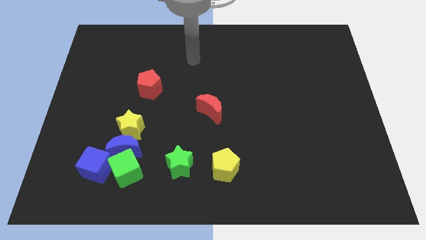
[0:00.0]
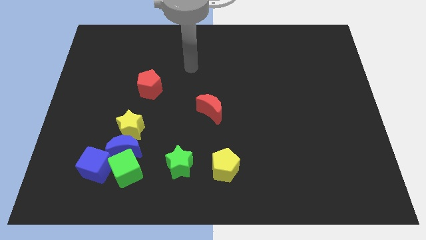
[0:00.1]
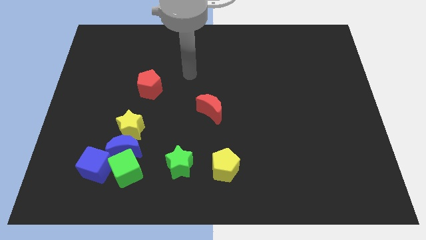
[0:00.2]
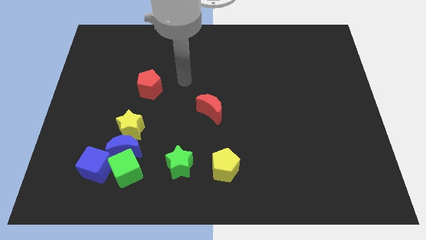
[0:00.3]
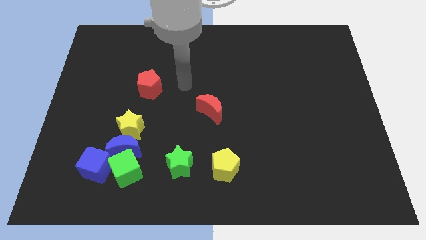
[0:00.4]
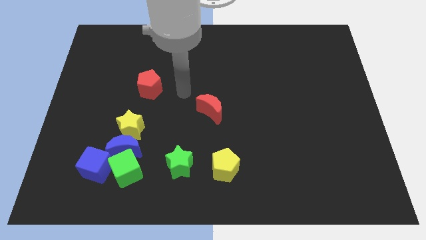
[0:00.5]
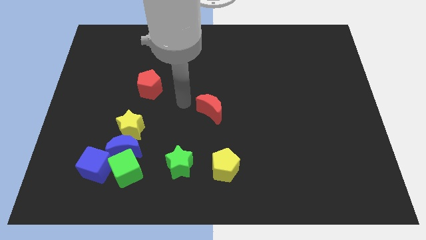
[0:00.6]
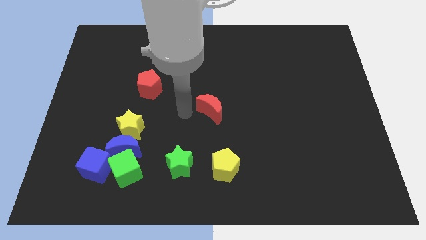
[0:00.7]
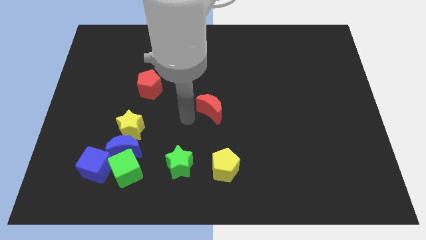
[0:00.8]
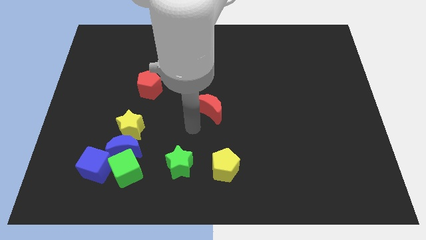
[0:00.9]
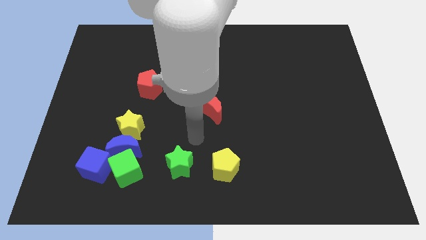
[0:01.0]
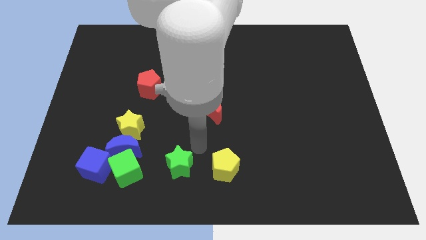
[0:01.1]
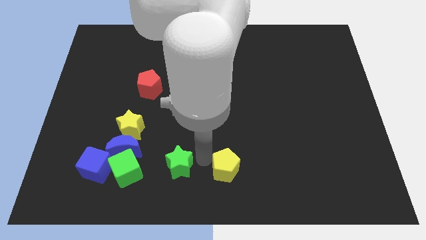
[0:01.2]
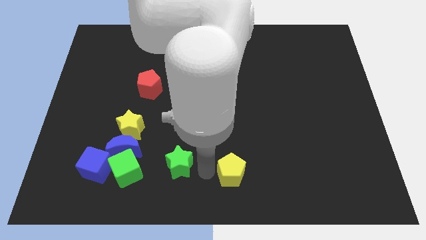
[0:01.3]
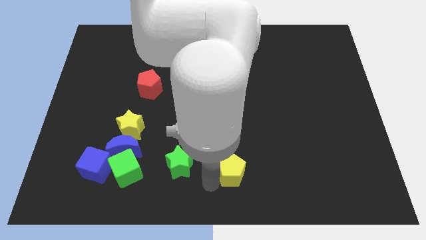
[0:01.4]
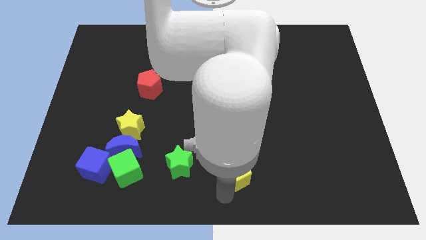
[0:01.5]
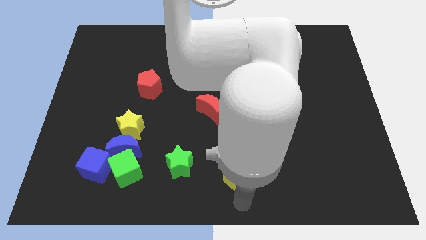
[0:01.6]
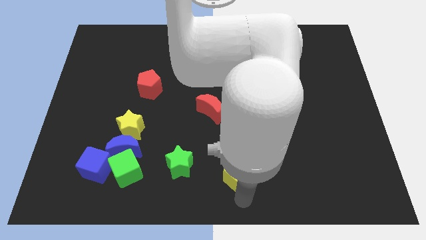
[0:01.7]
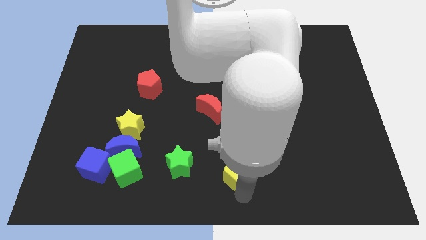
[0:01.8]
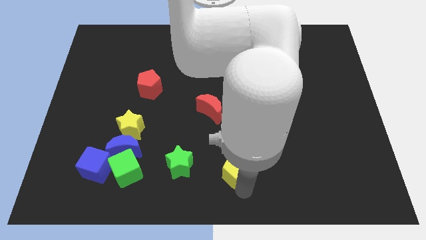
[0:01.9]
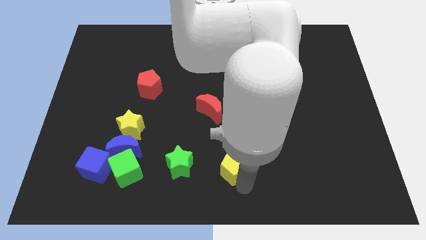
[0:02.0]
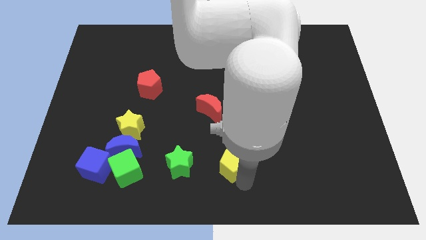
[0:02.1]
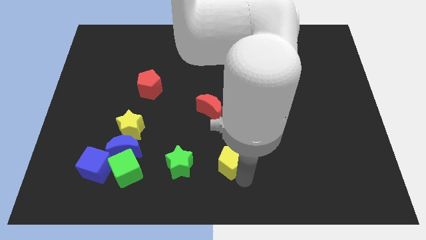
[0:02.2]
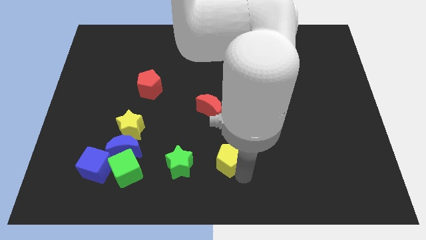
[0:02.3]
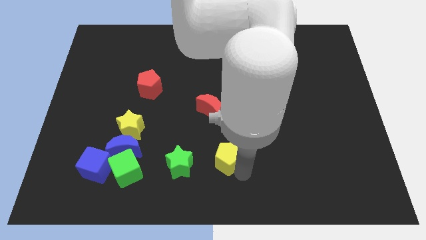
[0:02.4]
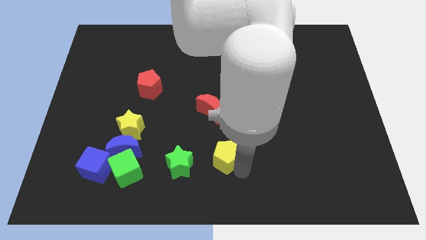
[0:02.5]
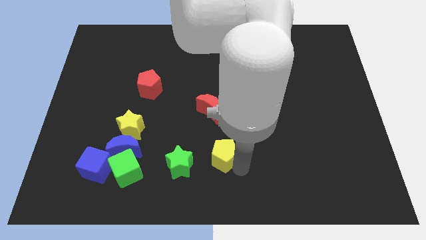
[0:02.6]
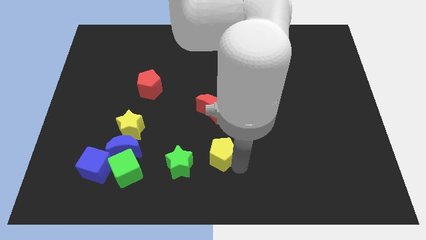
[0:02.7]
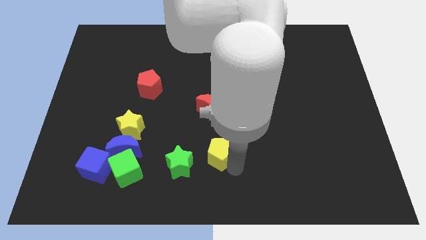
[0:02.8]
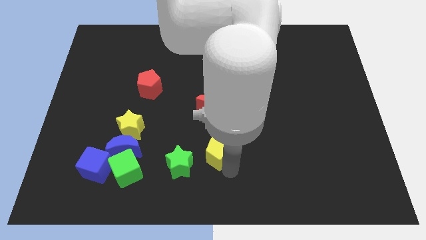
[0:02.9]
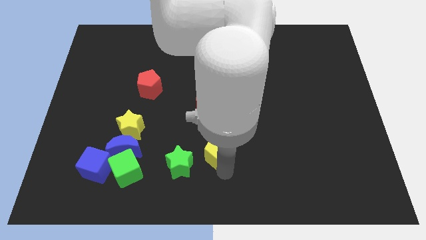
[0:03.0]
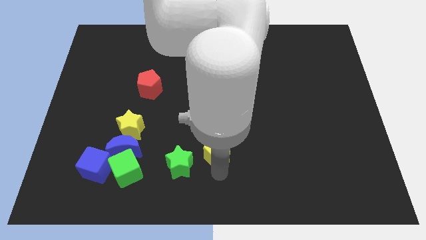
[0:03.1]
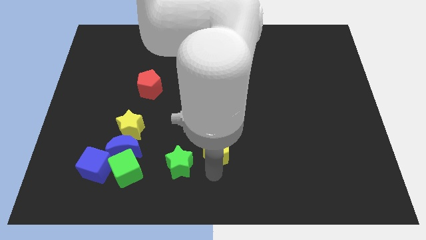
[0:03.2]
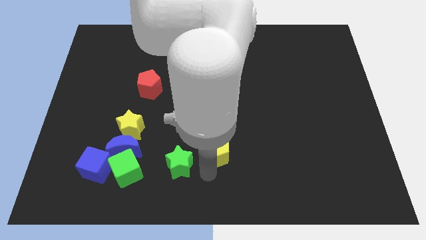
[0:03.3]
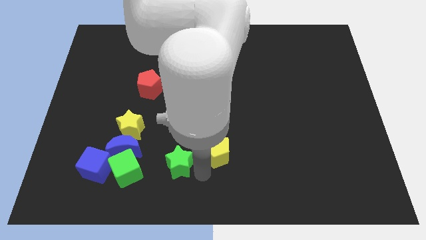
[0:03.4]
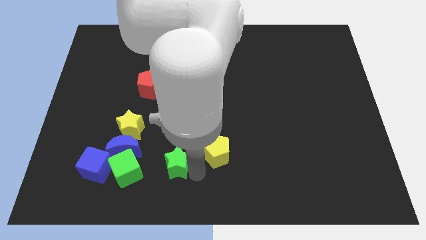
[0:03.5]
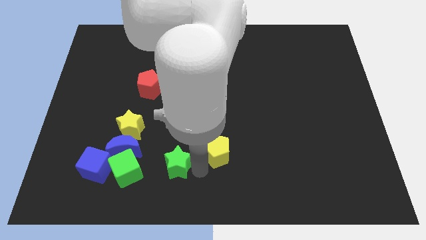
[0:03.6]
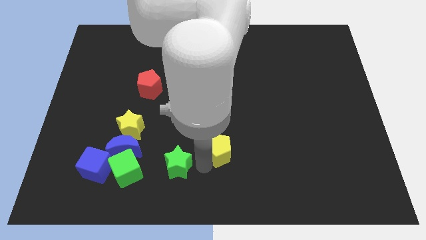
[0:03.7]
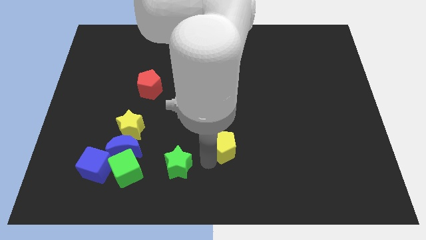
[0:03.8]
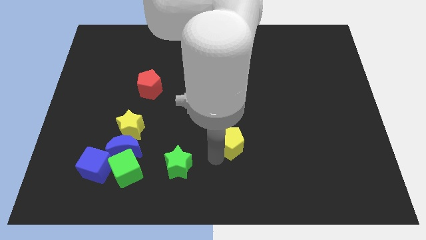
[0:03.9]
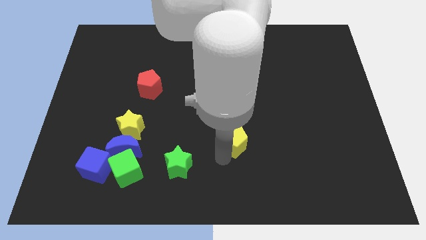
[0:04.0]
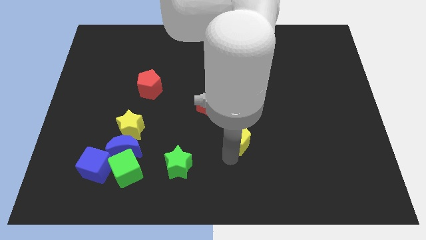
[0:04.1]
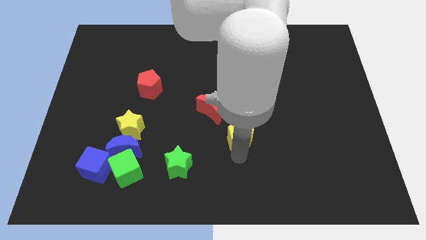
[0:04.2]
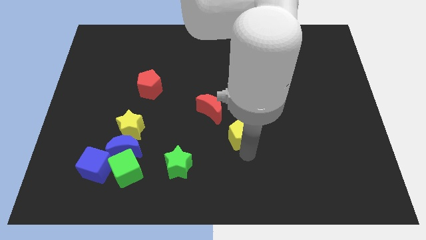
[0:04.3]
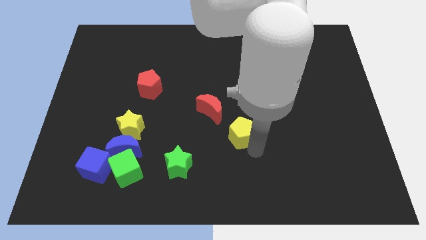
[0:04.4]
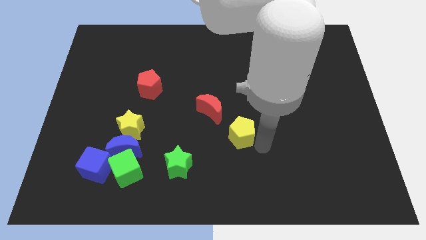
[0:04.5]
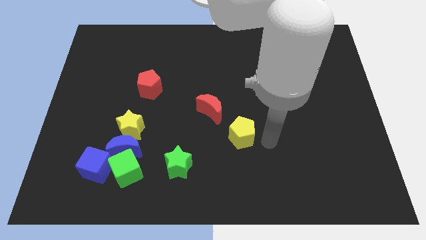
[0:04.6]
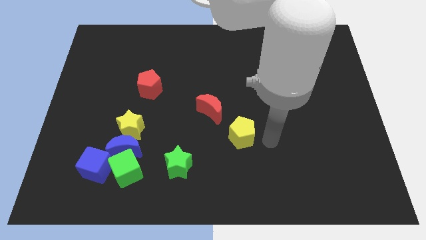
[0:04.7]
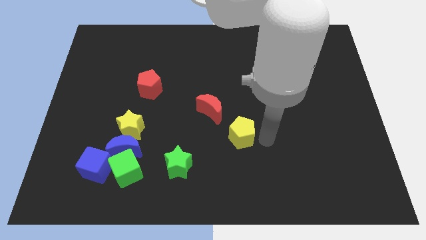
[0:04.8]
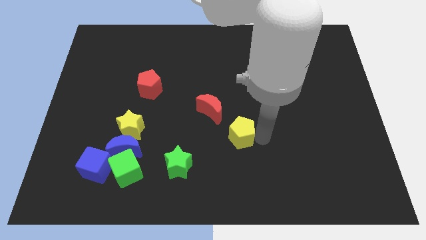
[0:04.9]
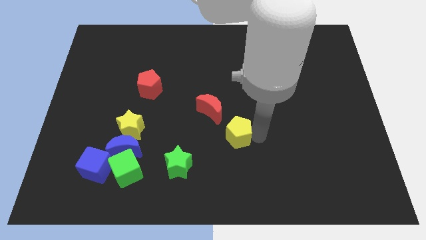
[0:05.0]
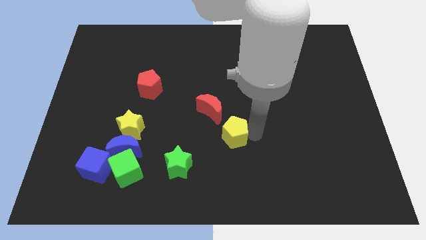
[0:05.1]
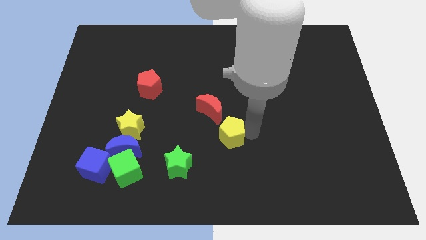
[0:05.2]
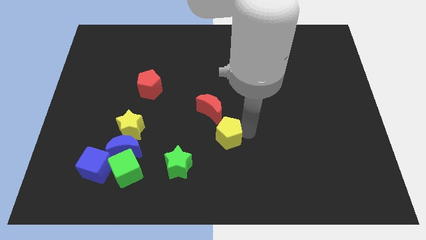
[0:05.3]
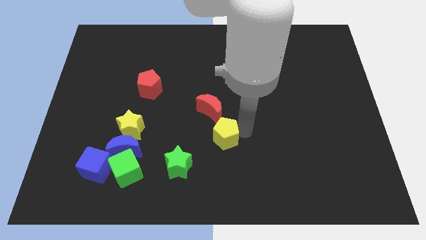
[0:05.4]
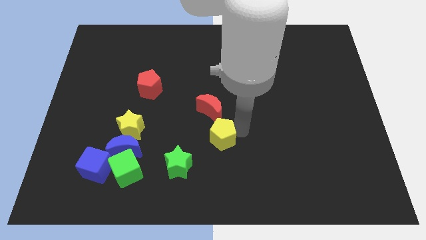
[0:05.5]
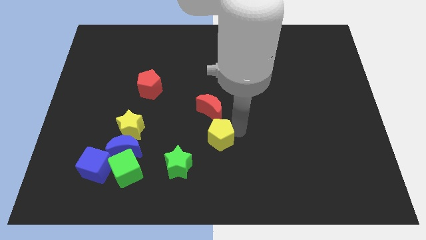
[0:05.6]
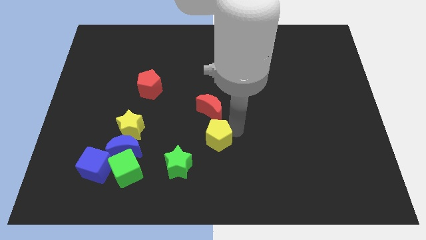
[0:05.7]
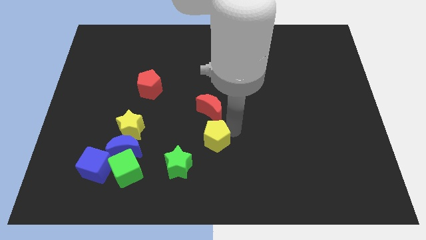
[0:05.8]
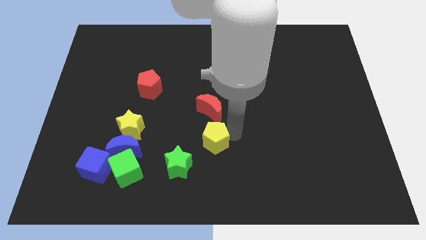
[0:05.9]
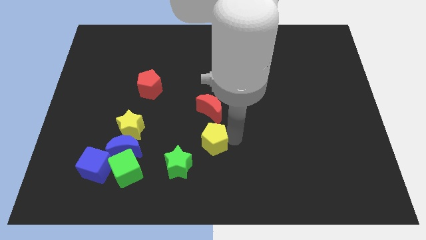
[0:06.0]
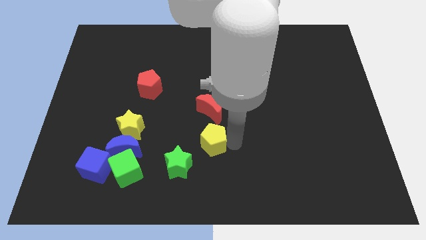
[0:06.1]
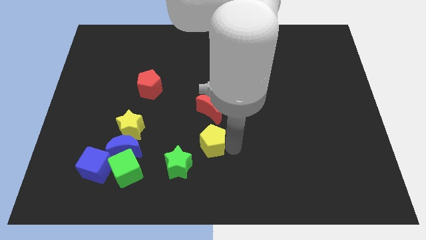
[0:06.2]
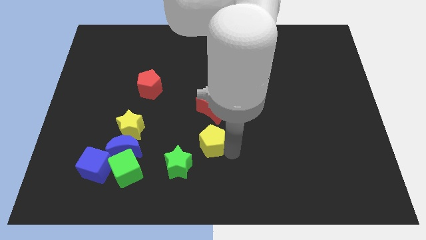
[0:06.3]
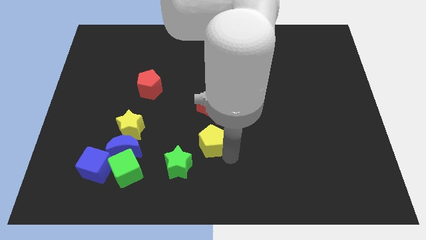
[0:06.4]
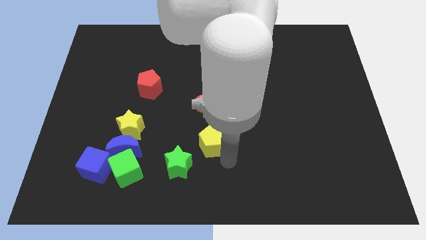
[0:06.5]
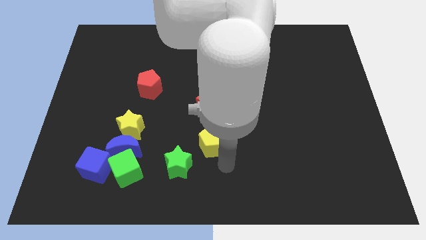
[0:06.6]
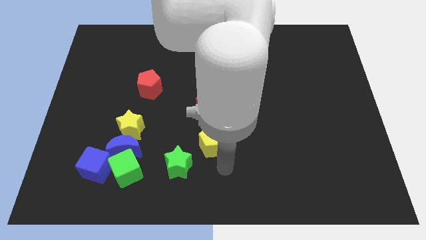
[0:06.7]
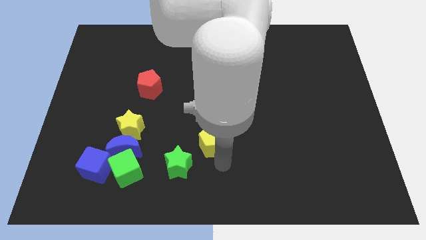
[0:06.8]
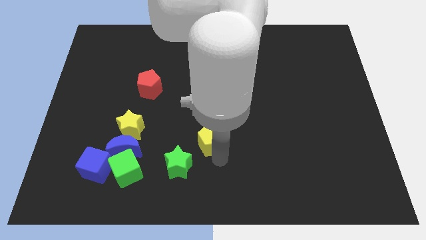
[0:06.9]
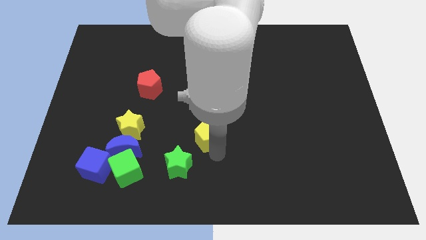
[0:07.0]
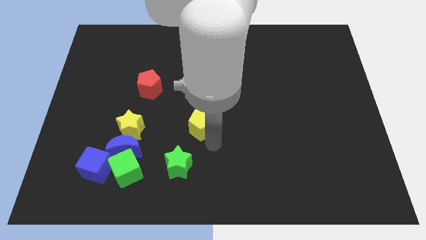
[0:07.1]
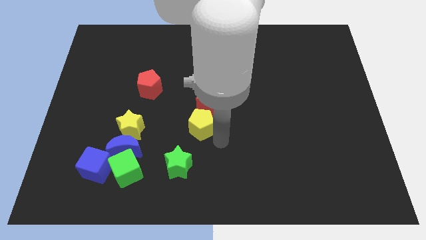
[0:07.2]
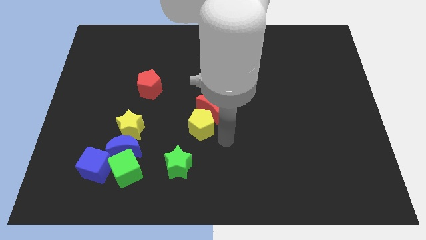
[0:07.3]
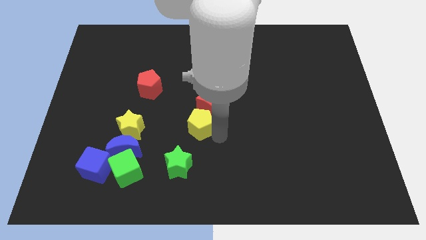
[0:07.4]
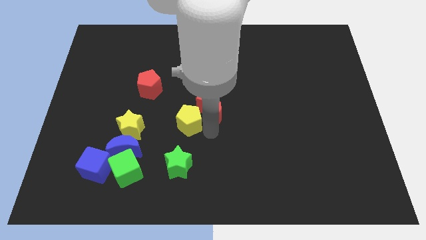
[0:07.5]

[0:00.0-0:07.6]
put the yellow pentagon just left of the red moon
